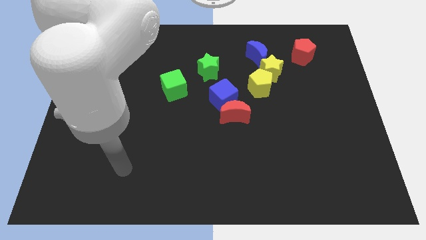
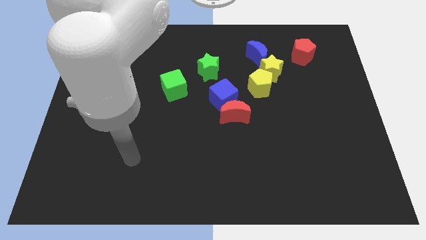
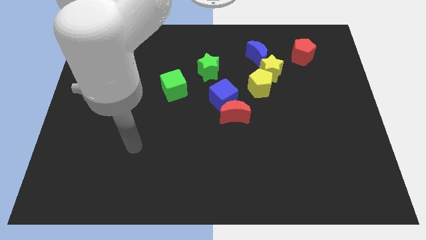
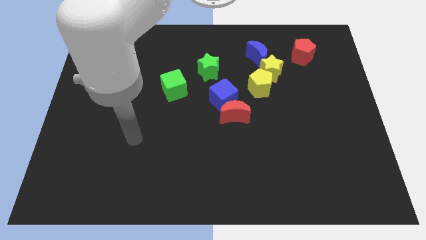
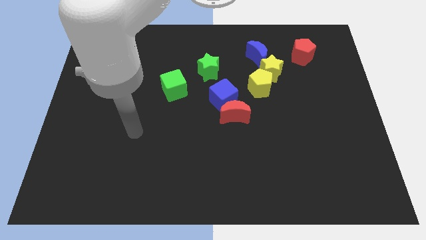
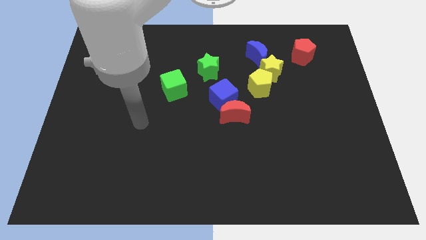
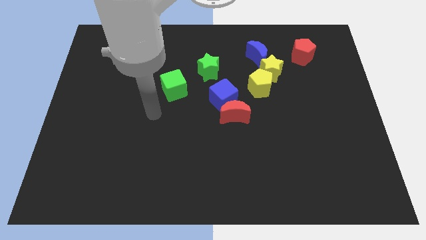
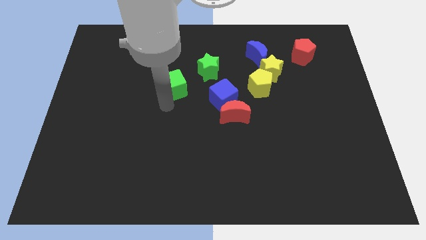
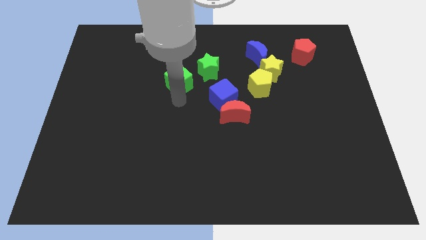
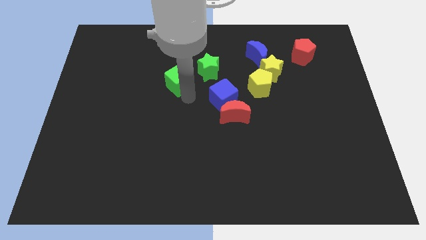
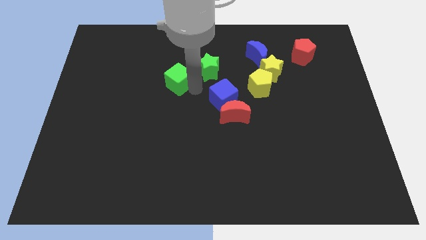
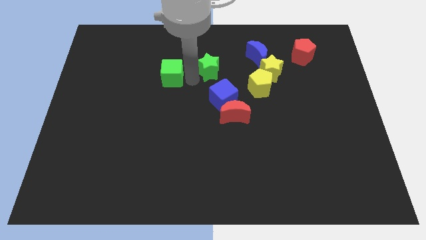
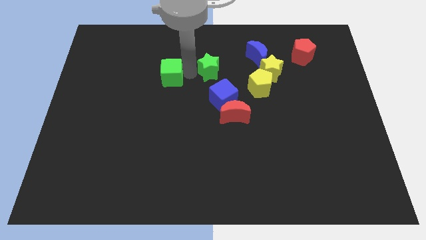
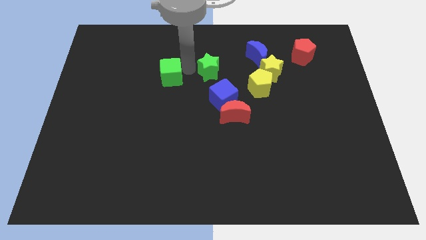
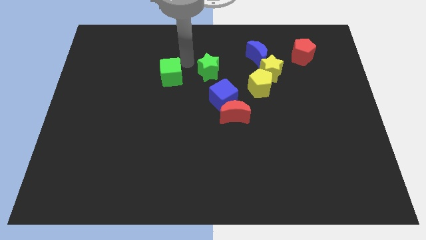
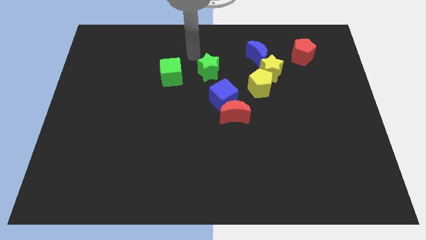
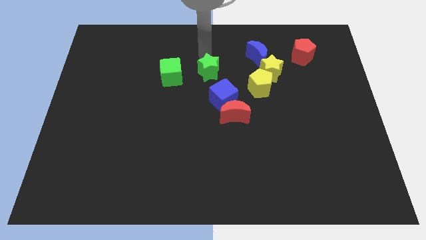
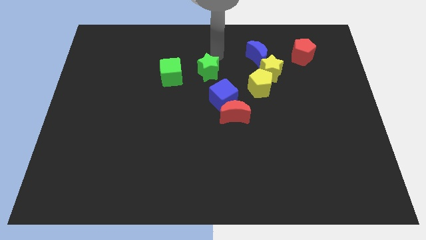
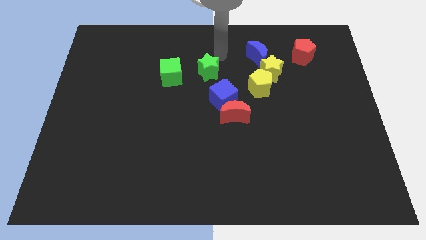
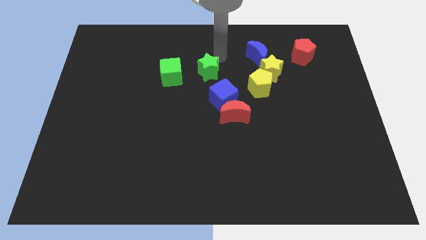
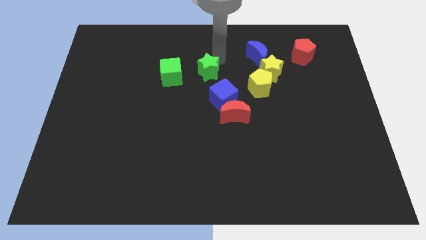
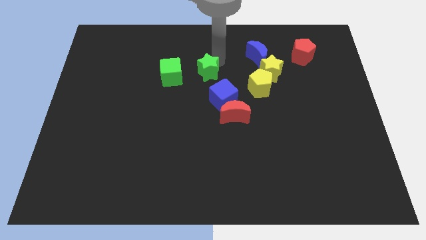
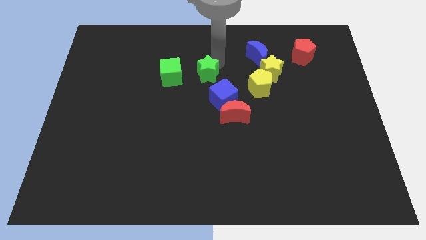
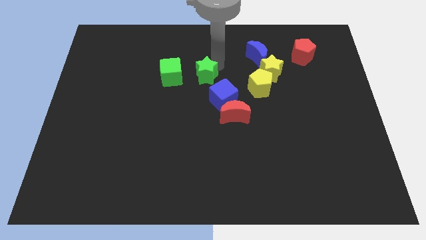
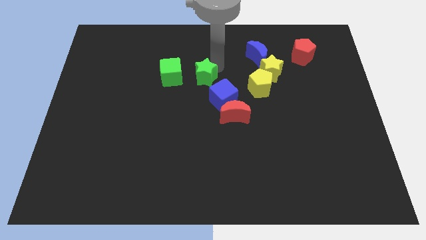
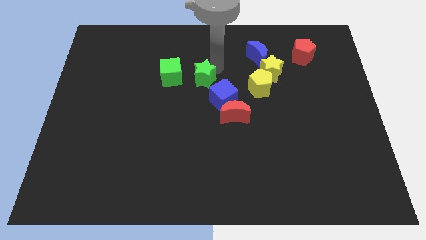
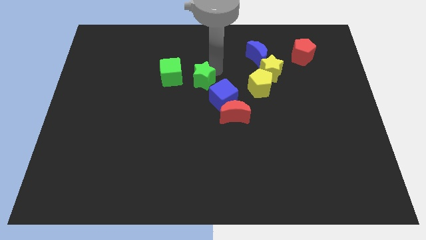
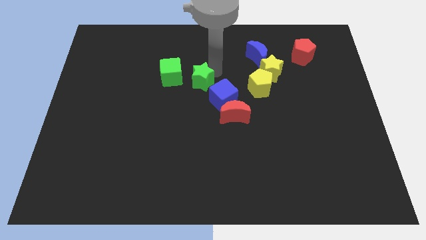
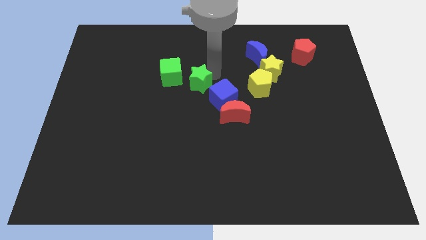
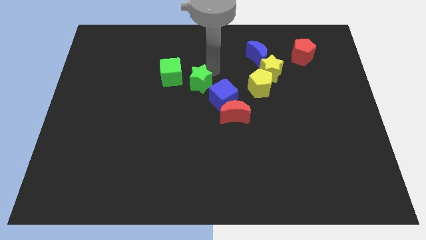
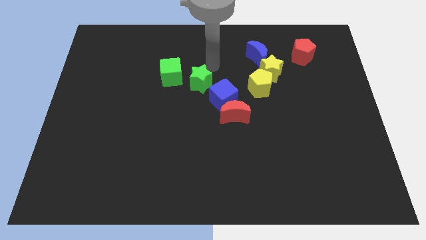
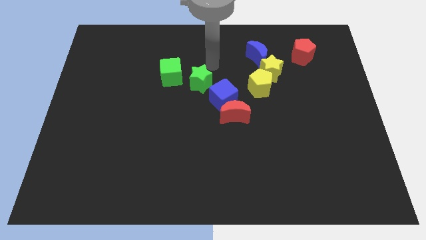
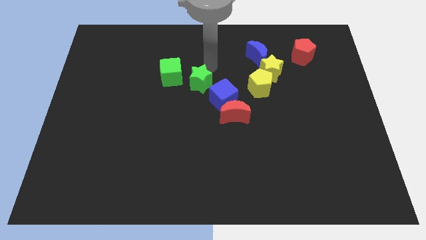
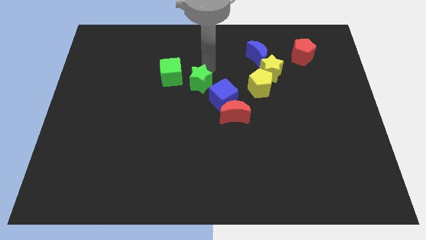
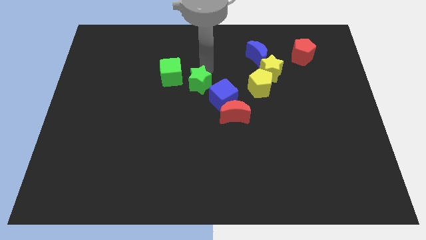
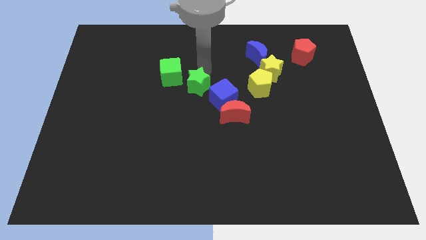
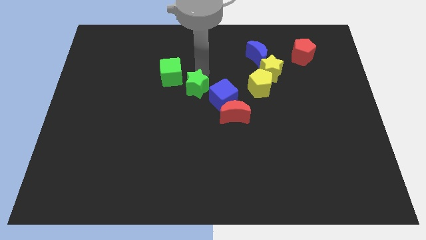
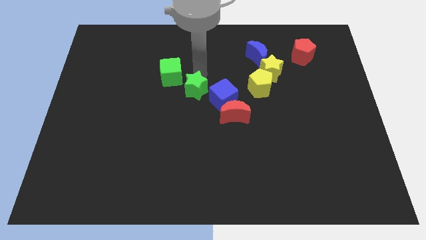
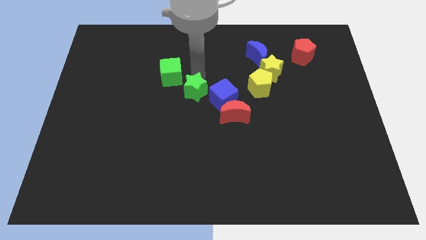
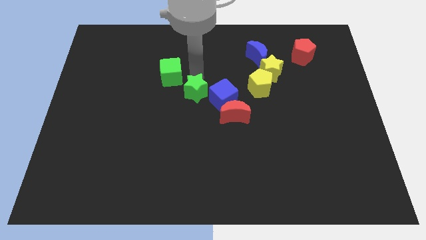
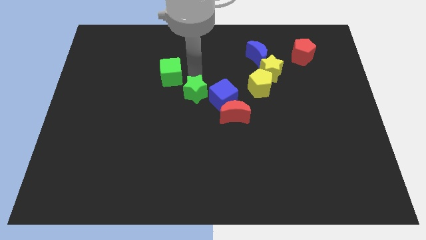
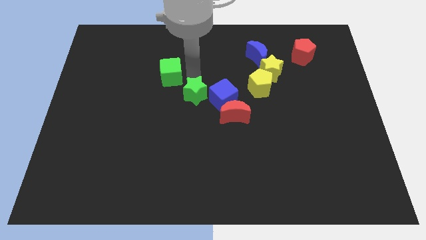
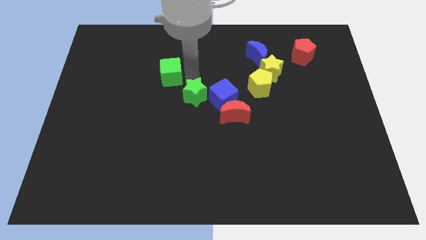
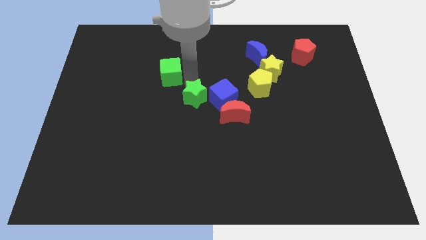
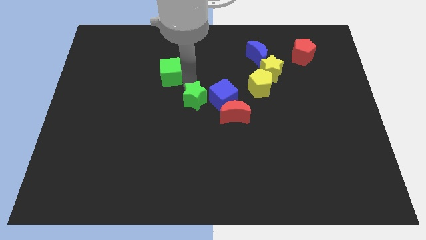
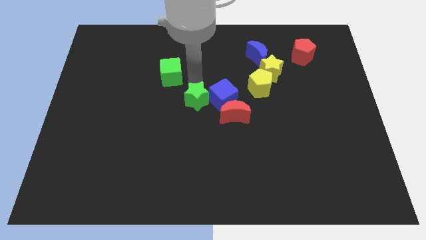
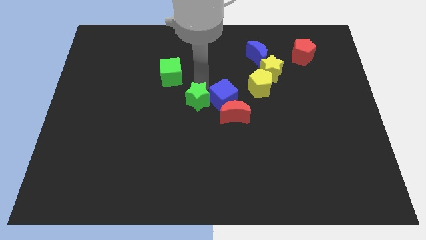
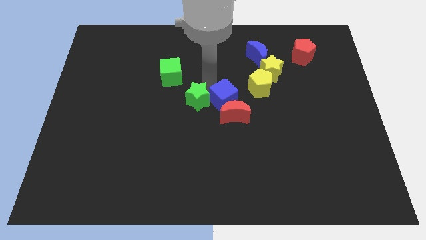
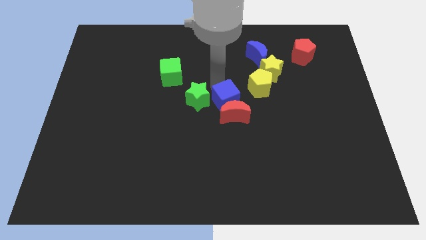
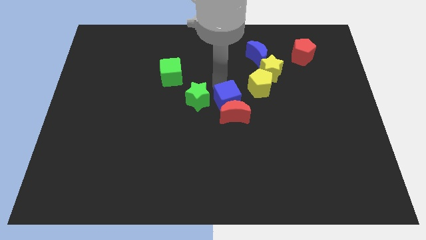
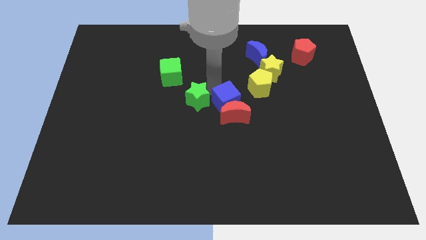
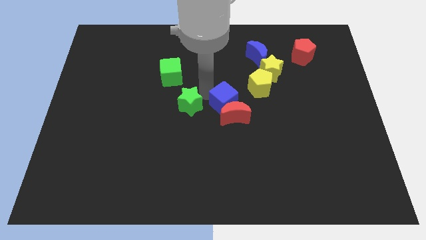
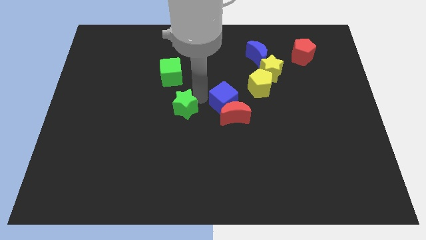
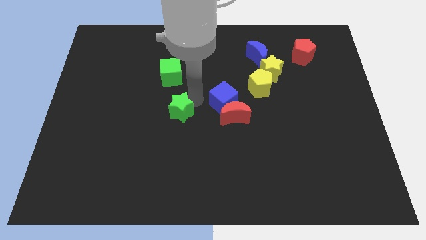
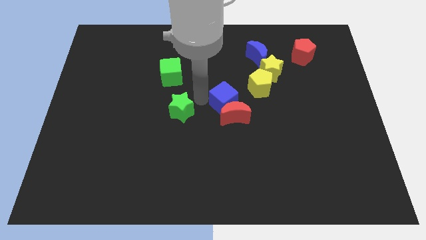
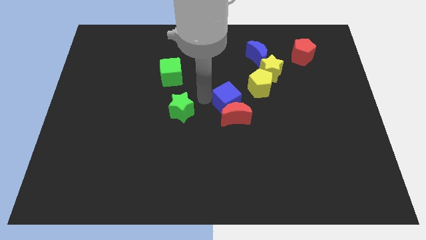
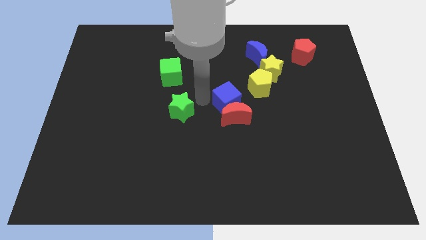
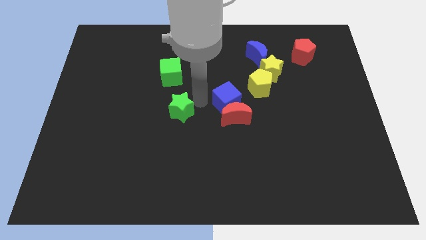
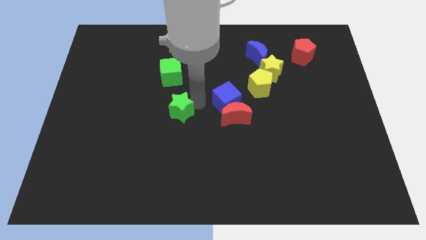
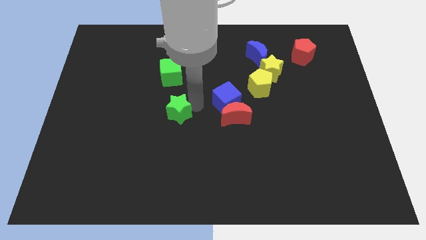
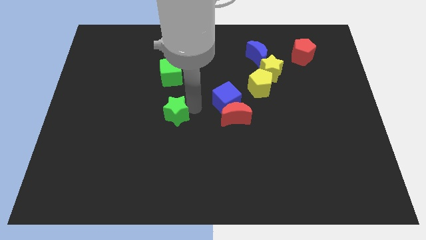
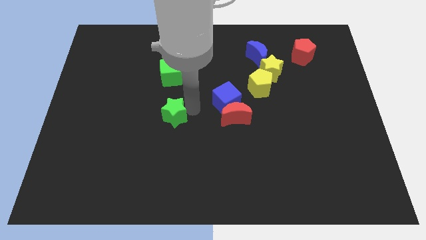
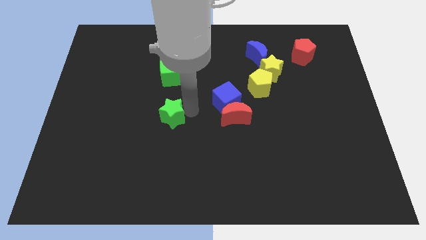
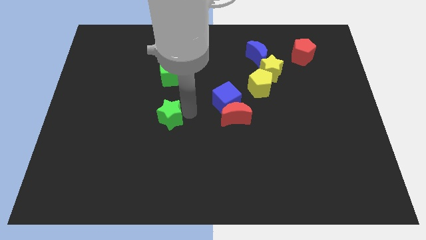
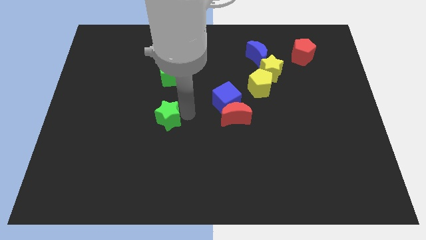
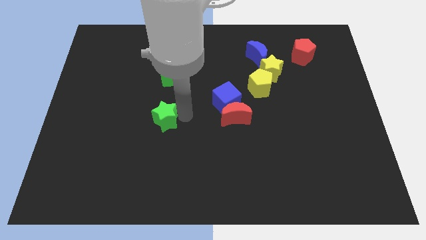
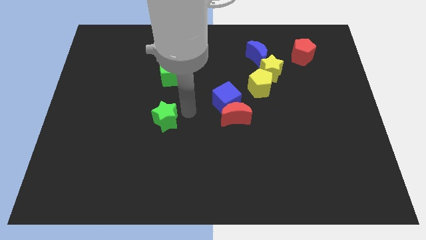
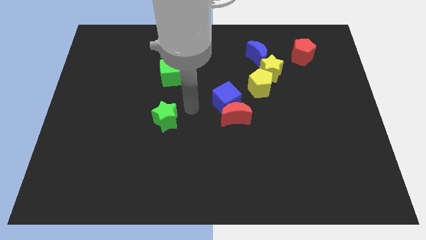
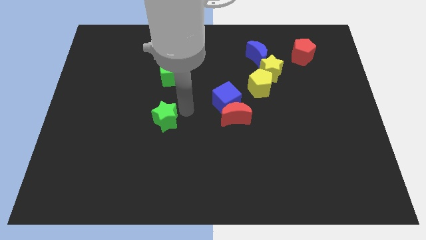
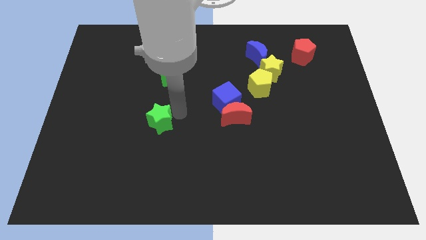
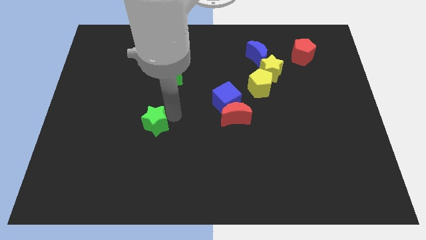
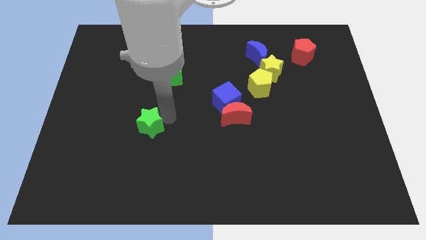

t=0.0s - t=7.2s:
push the green star downwards and to the left

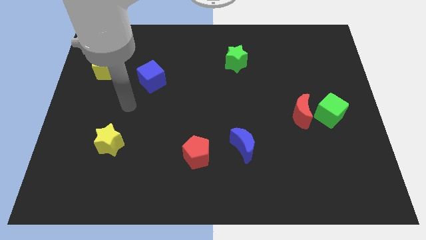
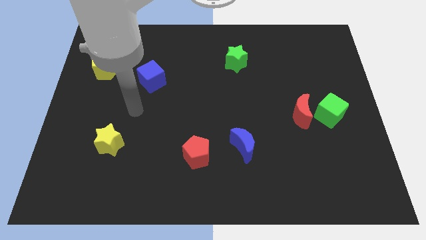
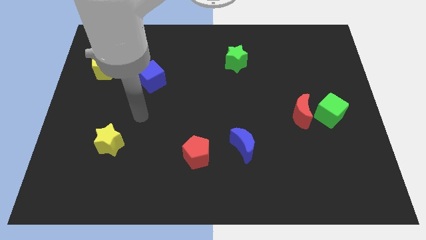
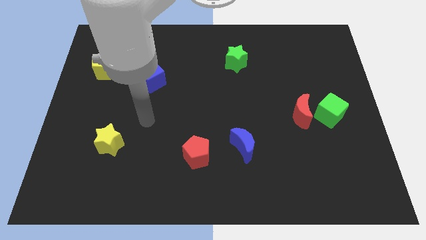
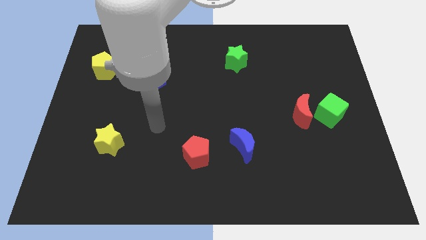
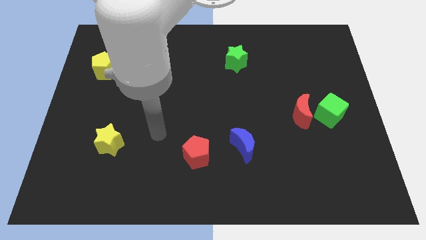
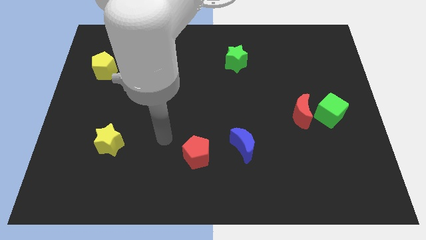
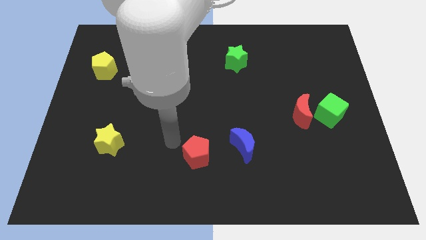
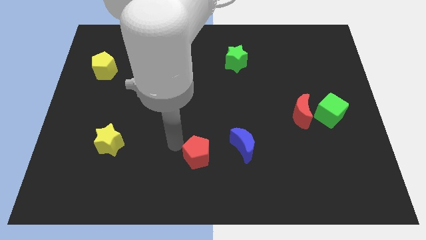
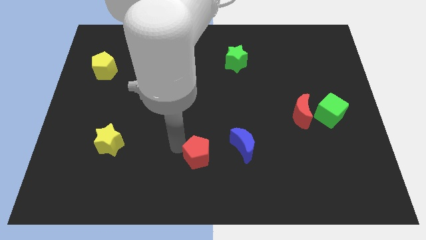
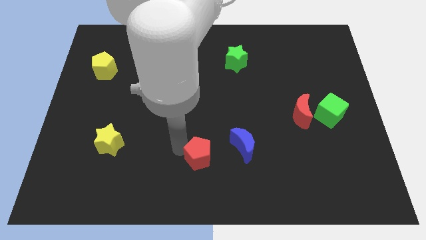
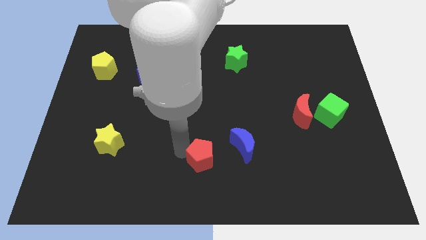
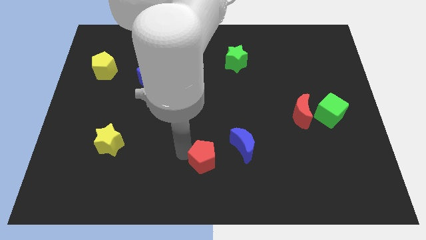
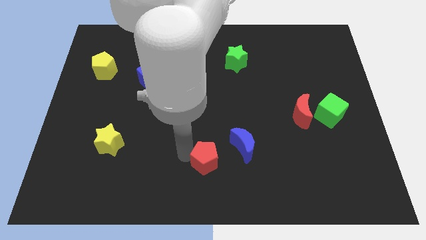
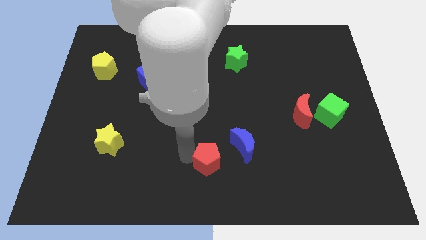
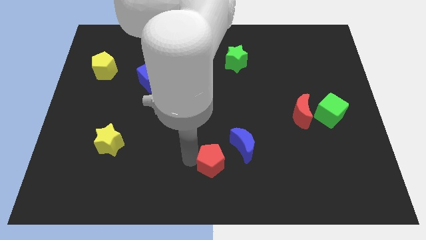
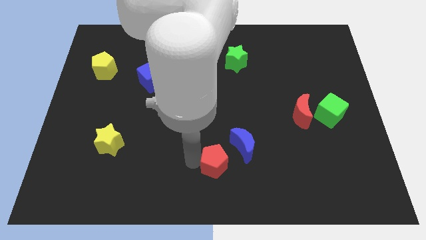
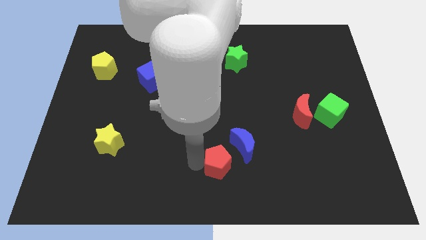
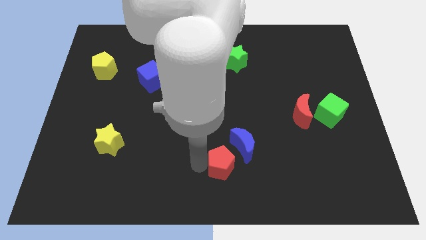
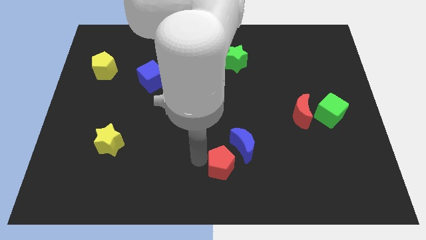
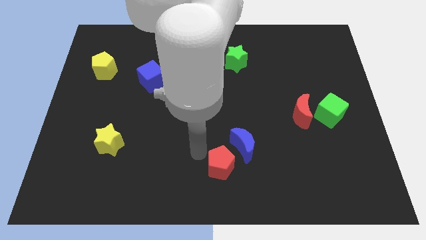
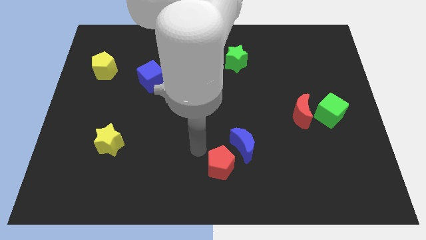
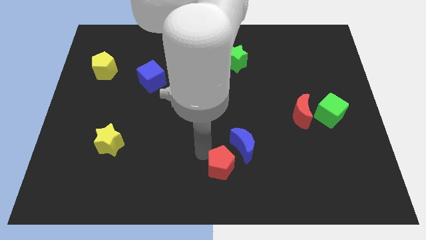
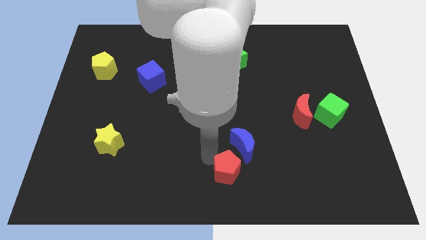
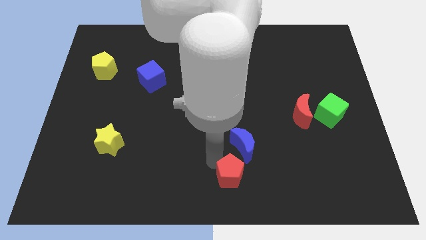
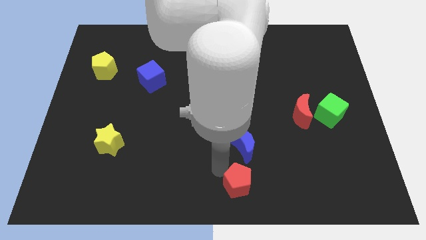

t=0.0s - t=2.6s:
push the red pentagon slightly right
